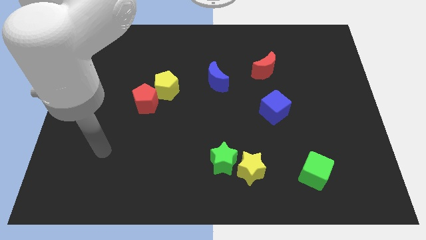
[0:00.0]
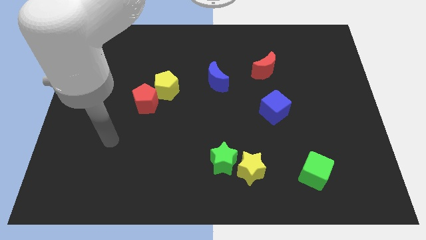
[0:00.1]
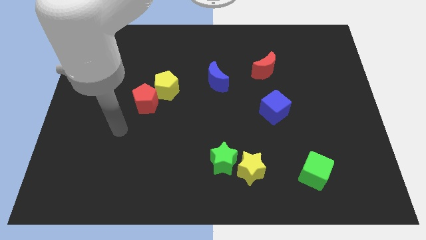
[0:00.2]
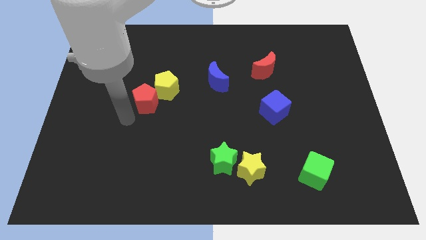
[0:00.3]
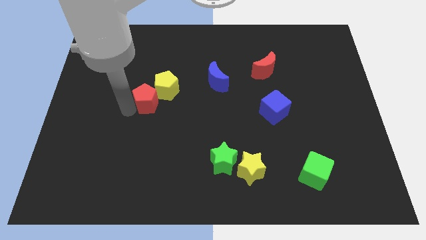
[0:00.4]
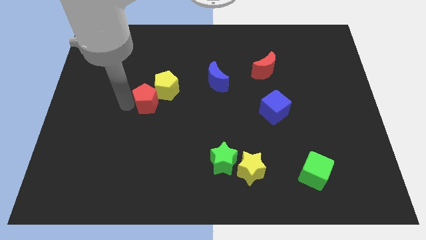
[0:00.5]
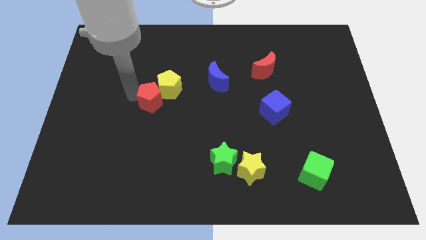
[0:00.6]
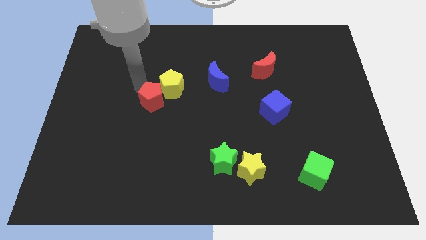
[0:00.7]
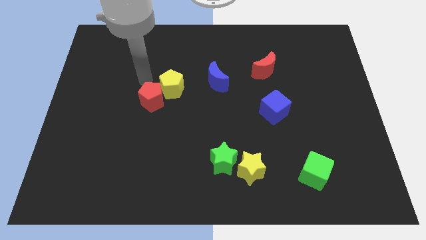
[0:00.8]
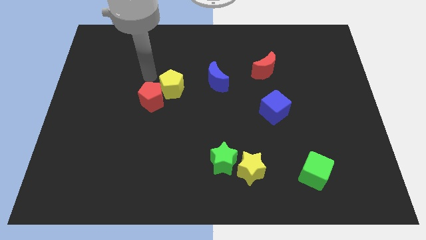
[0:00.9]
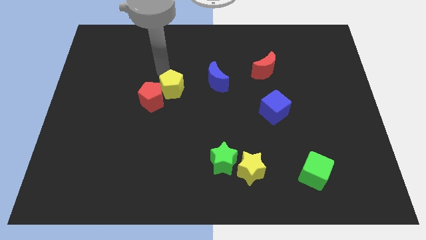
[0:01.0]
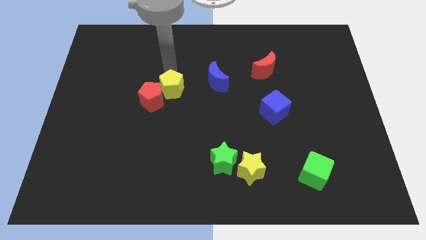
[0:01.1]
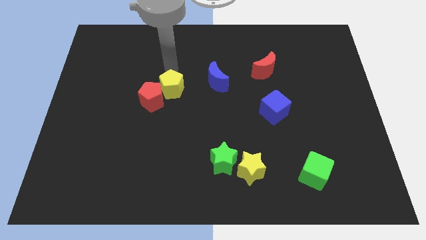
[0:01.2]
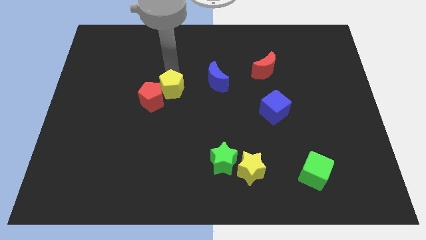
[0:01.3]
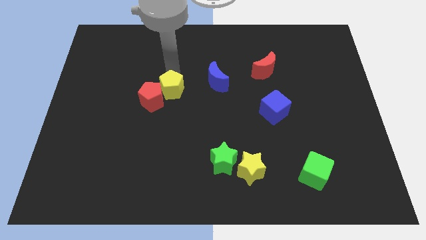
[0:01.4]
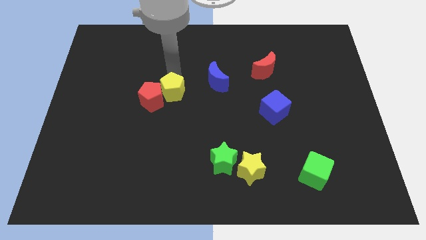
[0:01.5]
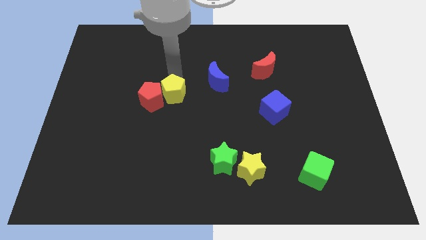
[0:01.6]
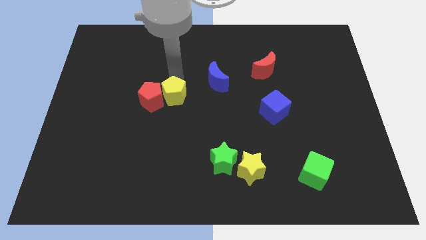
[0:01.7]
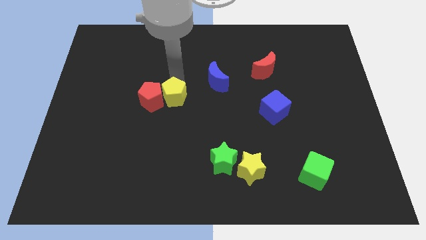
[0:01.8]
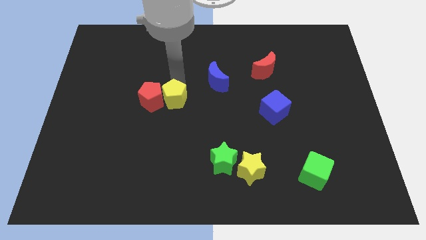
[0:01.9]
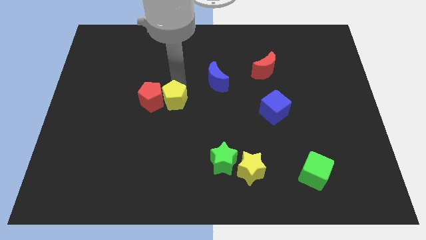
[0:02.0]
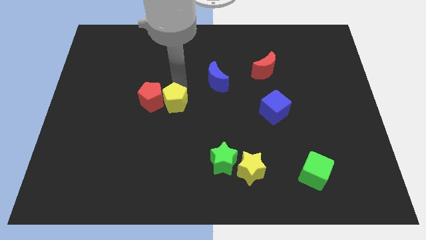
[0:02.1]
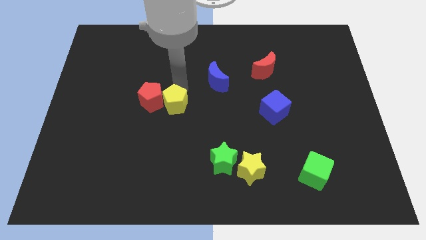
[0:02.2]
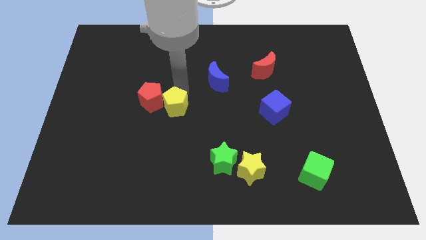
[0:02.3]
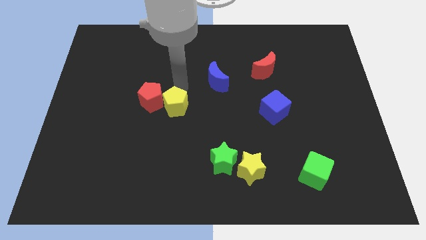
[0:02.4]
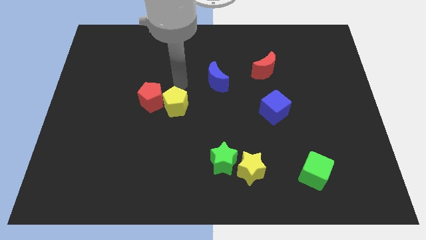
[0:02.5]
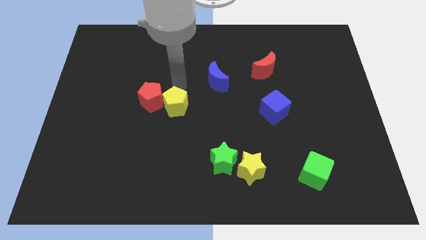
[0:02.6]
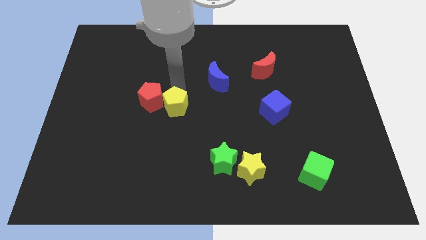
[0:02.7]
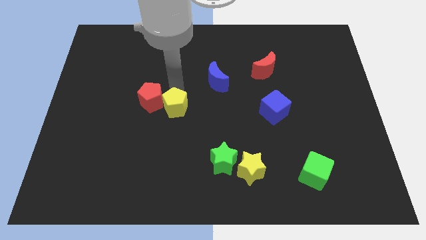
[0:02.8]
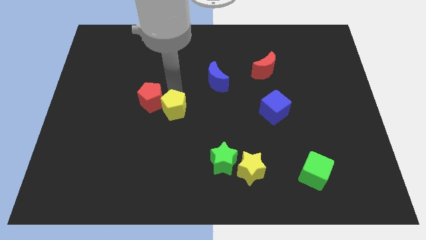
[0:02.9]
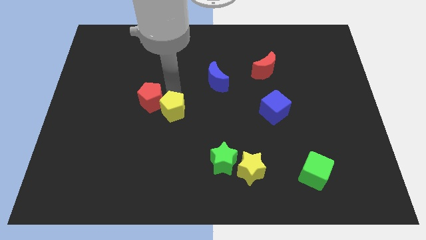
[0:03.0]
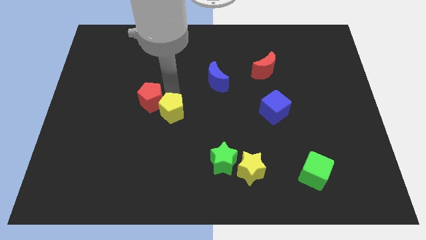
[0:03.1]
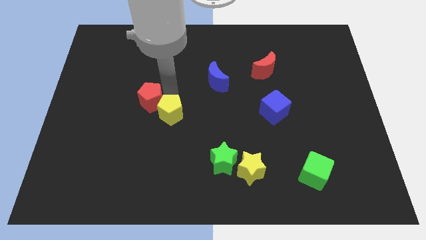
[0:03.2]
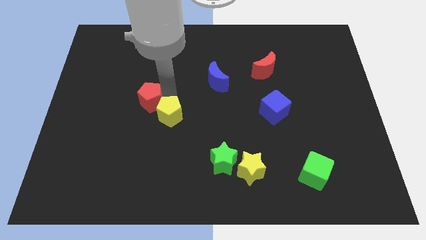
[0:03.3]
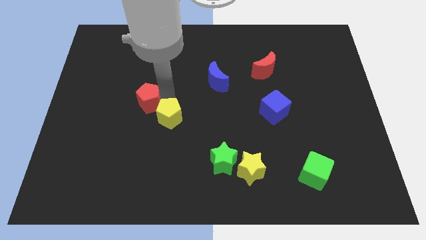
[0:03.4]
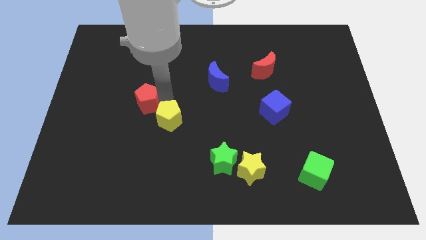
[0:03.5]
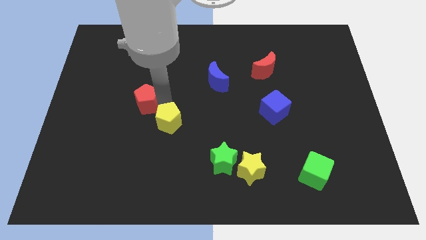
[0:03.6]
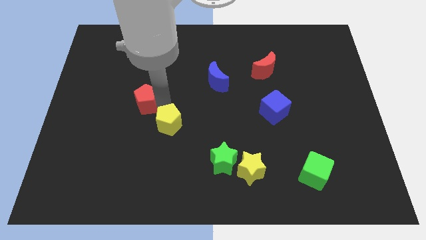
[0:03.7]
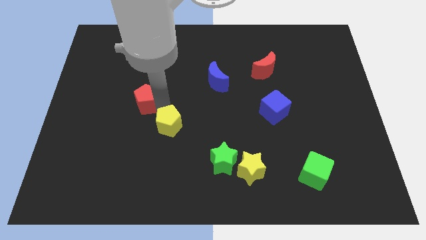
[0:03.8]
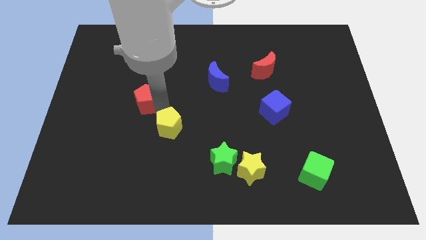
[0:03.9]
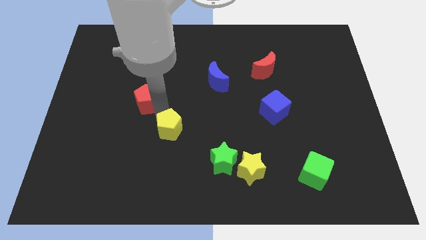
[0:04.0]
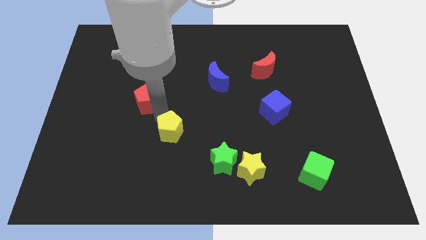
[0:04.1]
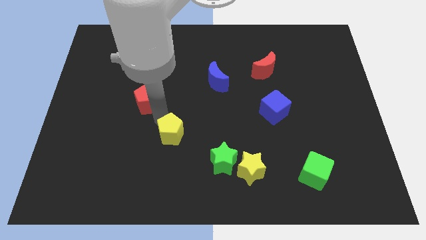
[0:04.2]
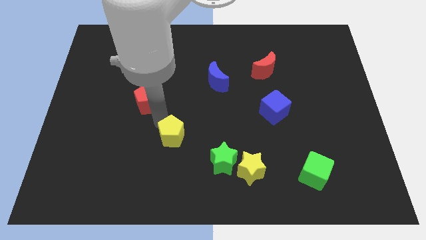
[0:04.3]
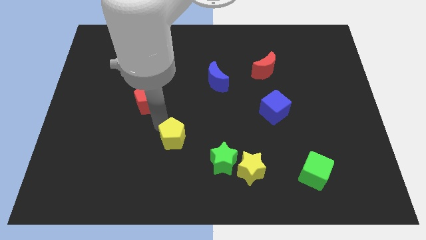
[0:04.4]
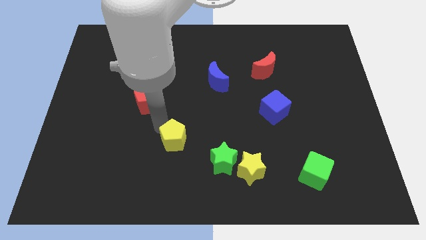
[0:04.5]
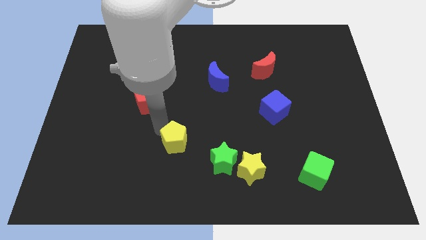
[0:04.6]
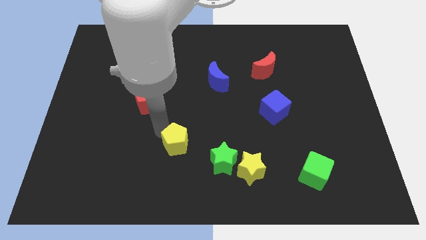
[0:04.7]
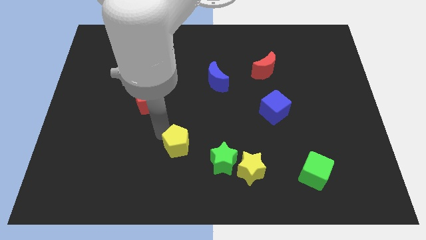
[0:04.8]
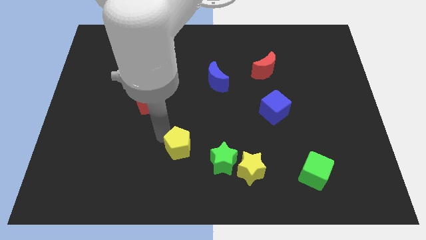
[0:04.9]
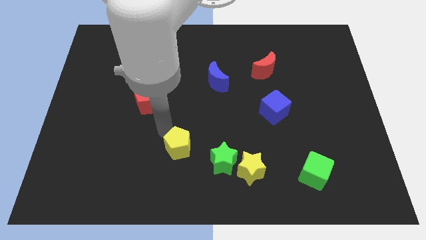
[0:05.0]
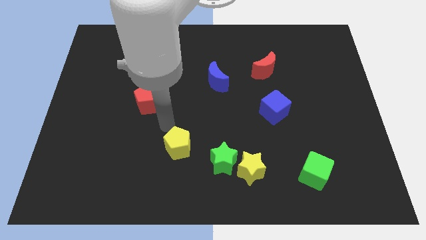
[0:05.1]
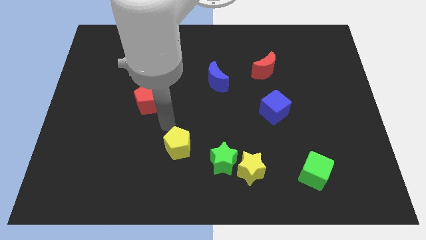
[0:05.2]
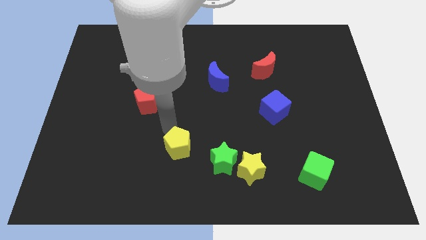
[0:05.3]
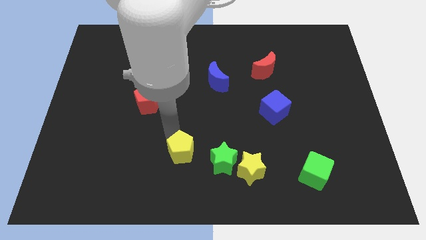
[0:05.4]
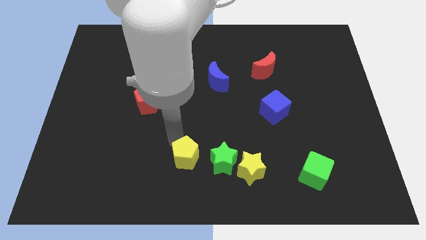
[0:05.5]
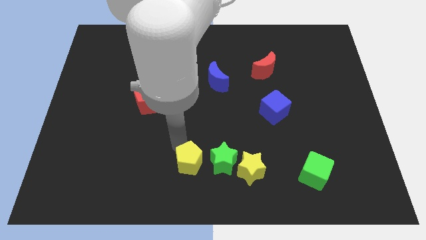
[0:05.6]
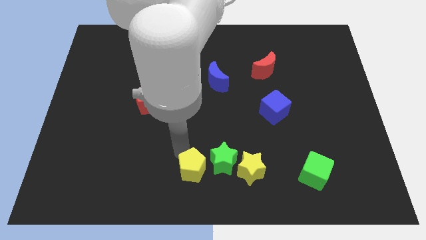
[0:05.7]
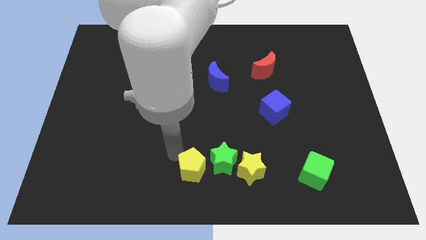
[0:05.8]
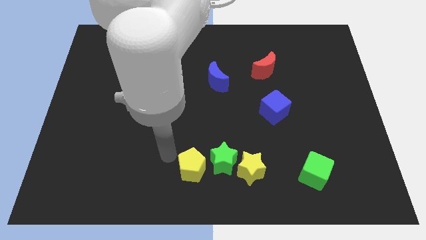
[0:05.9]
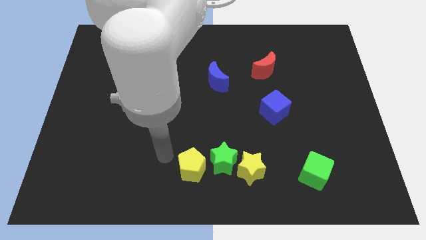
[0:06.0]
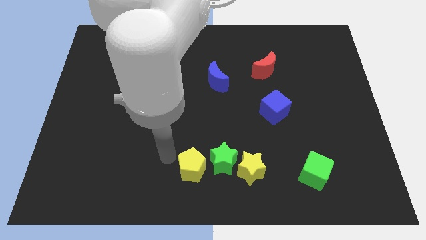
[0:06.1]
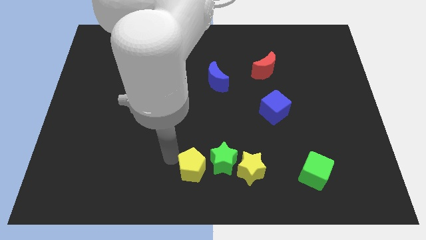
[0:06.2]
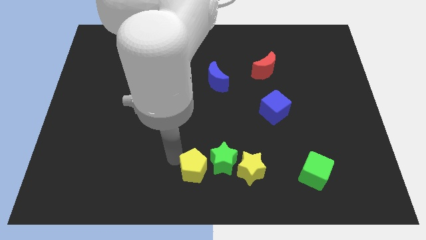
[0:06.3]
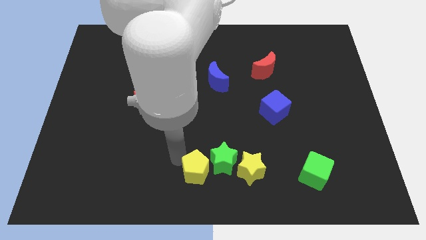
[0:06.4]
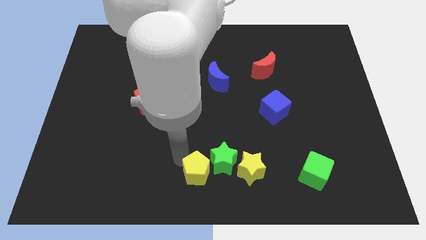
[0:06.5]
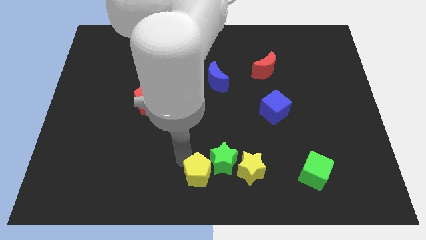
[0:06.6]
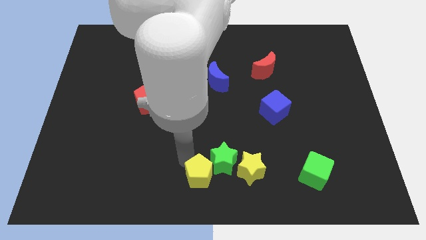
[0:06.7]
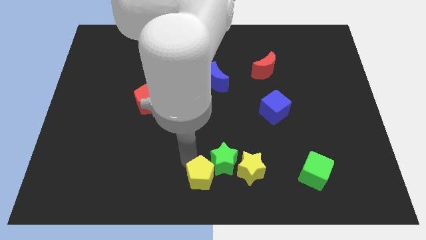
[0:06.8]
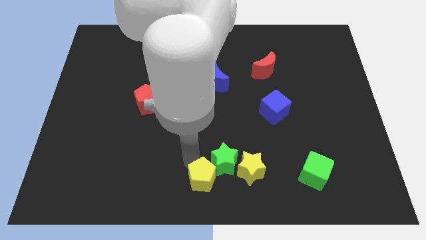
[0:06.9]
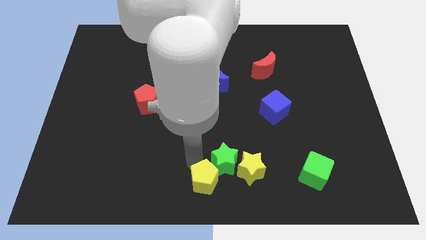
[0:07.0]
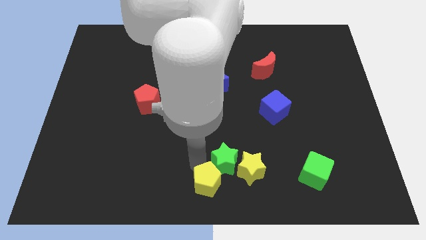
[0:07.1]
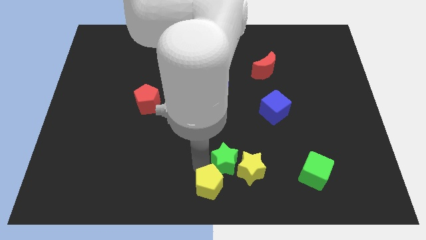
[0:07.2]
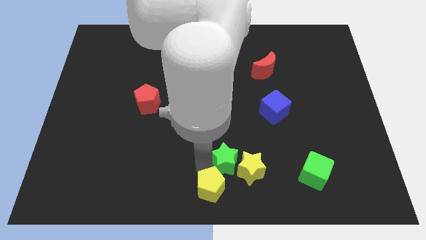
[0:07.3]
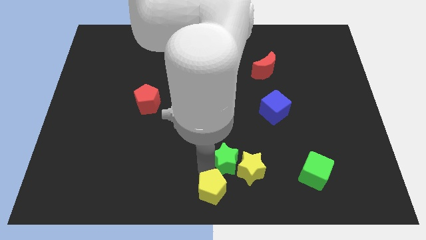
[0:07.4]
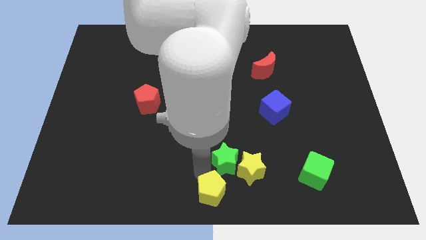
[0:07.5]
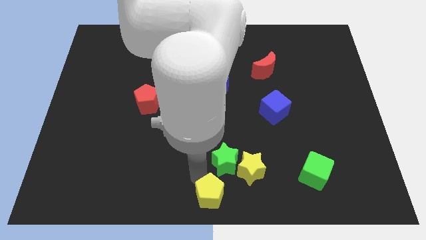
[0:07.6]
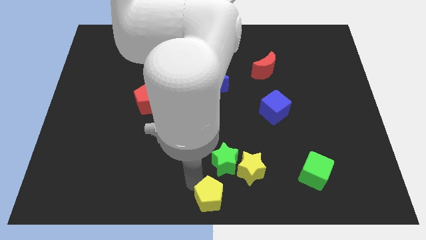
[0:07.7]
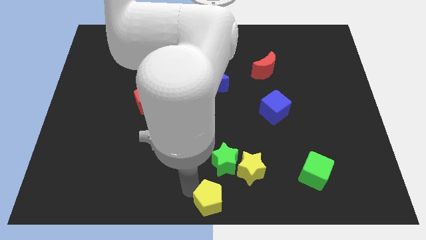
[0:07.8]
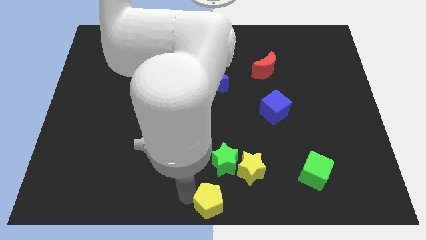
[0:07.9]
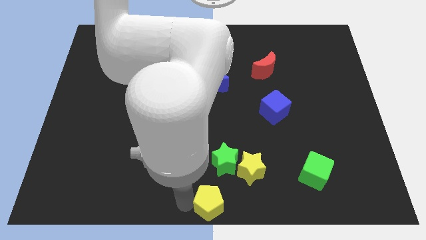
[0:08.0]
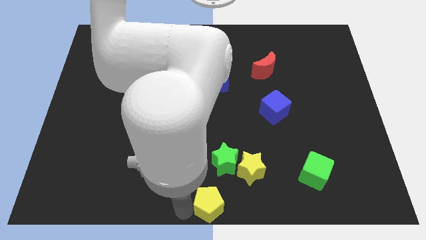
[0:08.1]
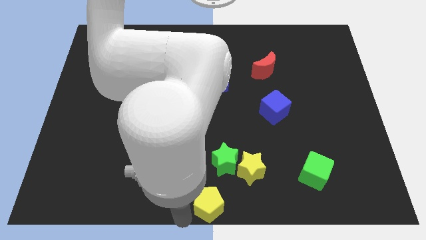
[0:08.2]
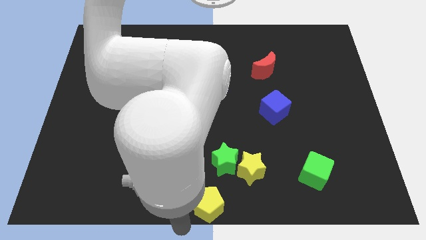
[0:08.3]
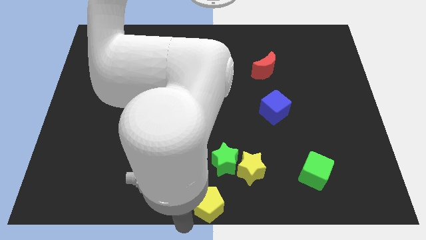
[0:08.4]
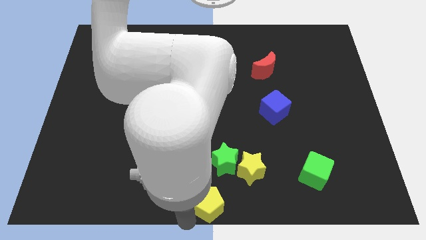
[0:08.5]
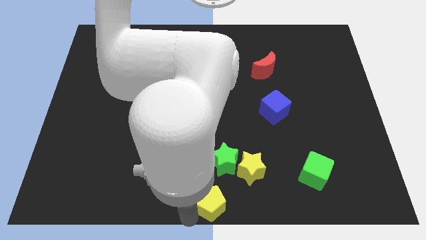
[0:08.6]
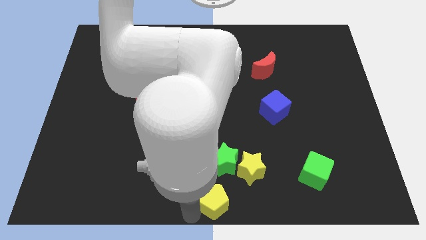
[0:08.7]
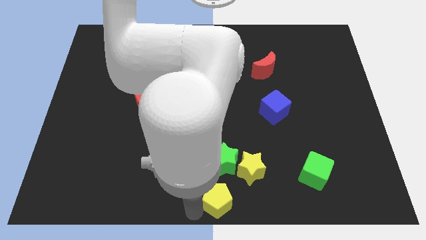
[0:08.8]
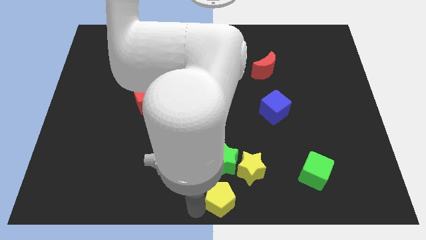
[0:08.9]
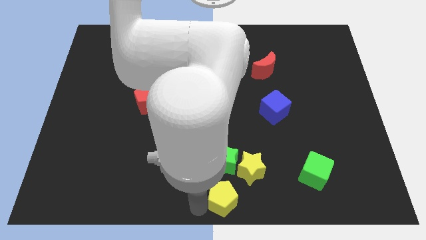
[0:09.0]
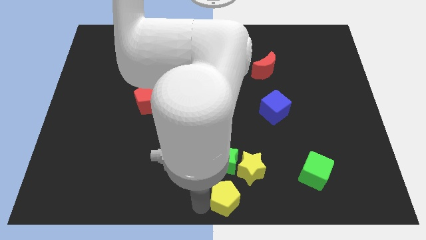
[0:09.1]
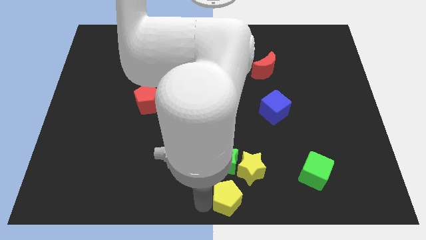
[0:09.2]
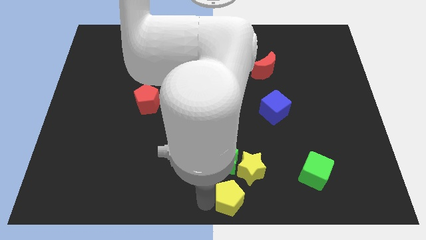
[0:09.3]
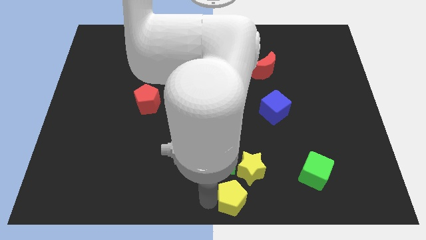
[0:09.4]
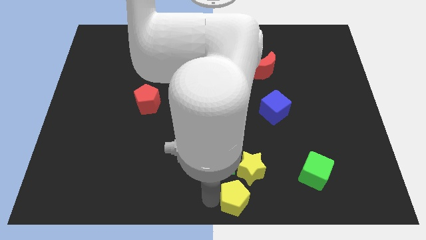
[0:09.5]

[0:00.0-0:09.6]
slide the yellow pentagon to the bottom right of the green star
